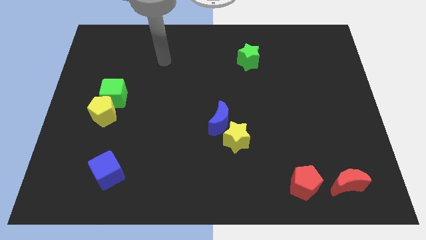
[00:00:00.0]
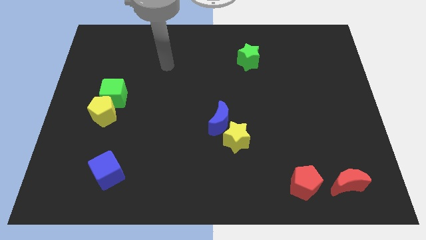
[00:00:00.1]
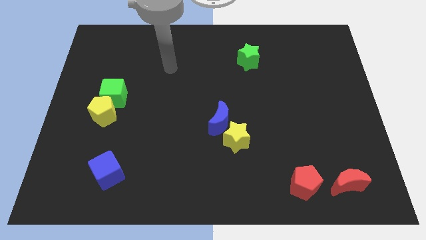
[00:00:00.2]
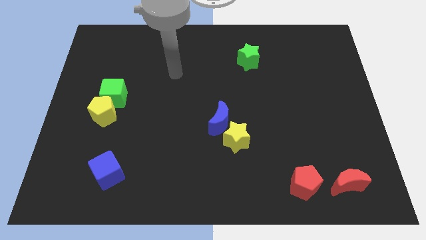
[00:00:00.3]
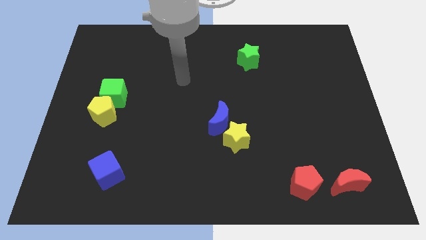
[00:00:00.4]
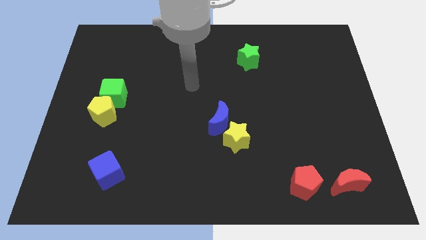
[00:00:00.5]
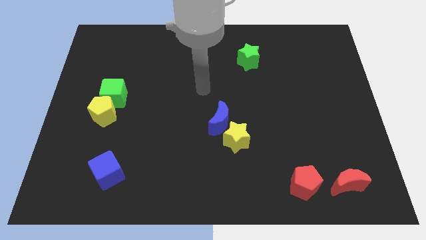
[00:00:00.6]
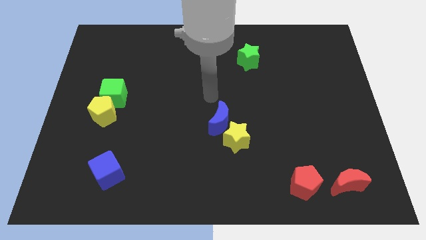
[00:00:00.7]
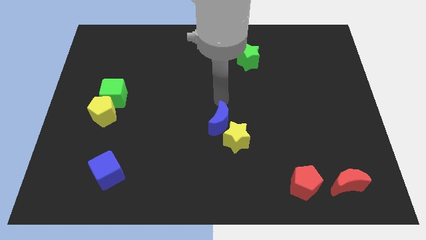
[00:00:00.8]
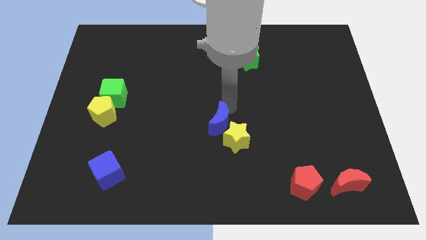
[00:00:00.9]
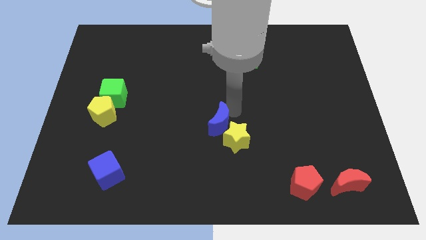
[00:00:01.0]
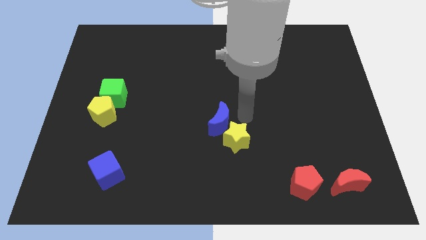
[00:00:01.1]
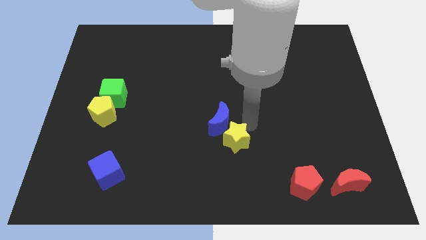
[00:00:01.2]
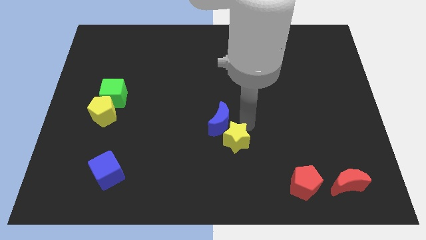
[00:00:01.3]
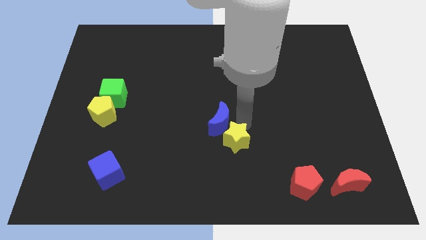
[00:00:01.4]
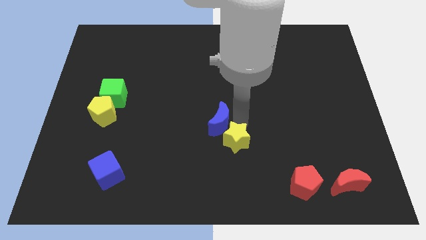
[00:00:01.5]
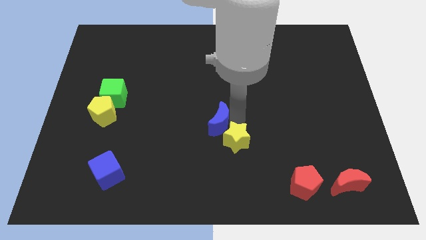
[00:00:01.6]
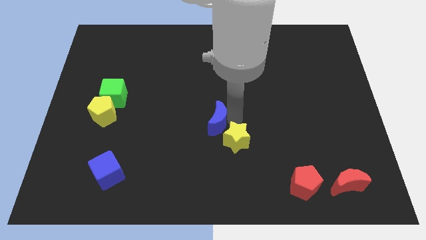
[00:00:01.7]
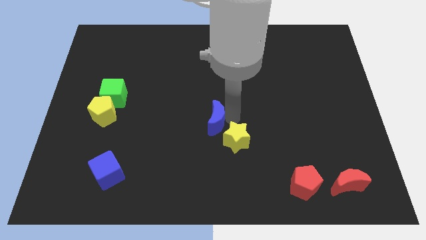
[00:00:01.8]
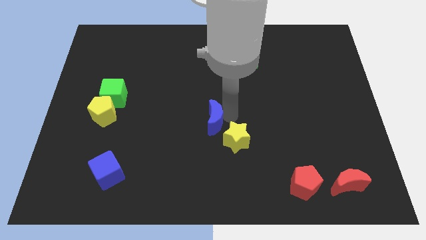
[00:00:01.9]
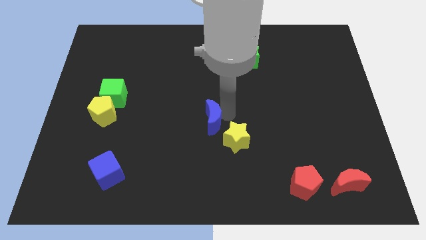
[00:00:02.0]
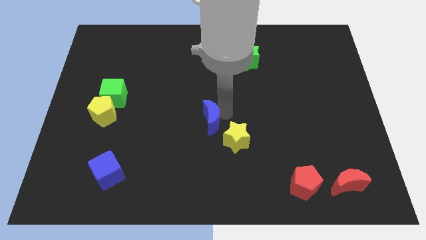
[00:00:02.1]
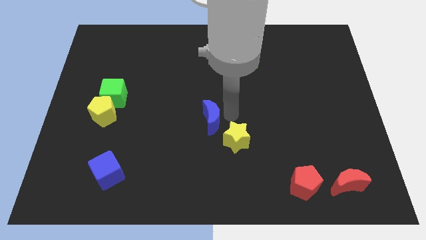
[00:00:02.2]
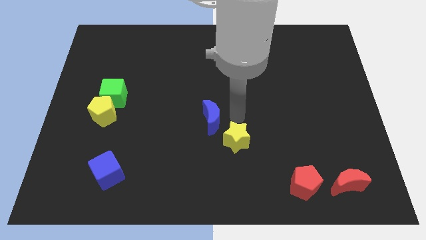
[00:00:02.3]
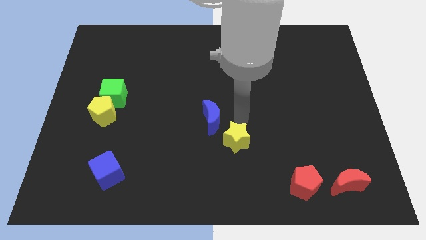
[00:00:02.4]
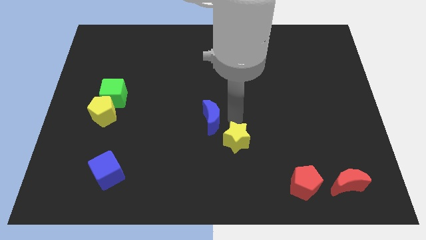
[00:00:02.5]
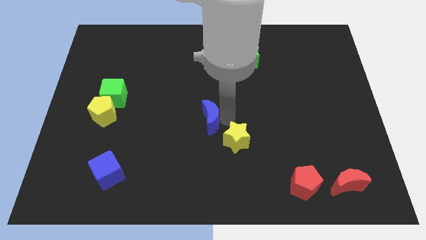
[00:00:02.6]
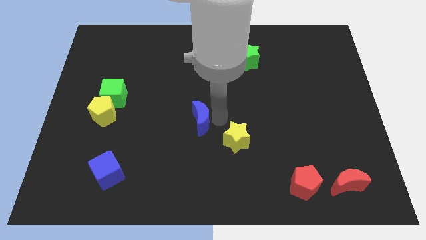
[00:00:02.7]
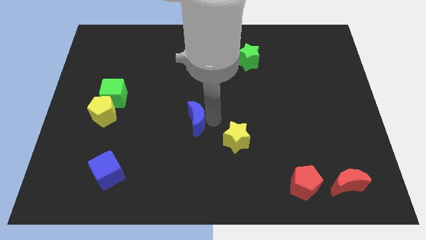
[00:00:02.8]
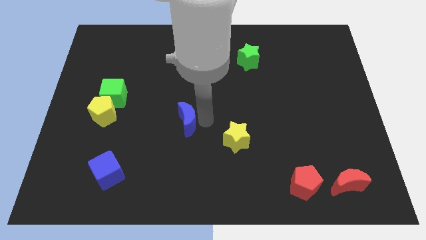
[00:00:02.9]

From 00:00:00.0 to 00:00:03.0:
push the blue moon to the left a bit

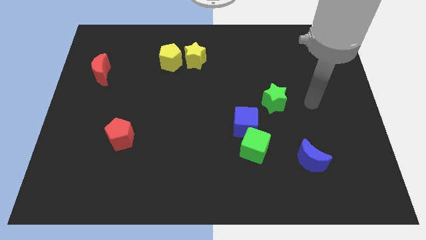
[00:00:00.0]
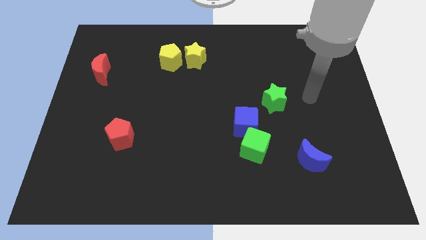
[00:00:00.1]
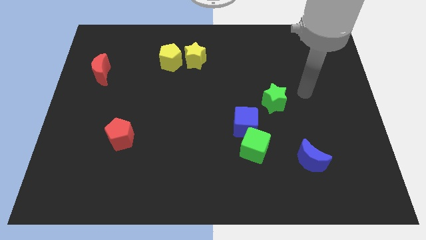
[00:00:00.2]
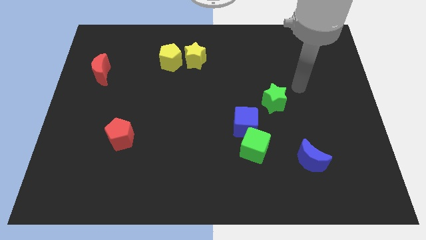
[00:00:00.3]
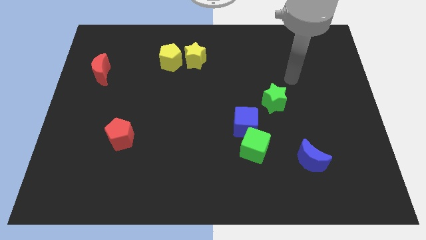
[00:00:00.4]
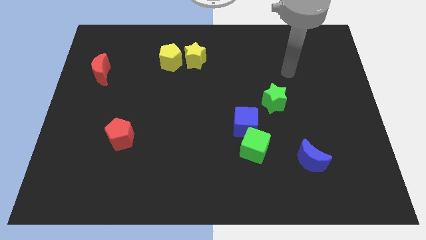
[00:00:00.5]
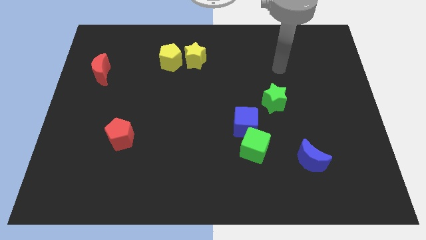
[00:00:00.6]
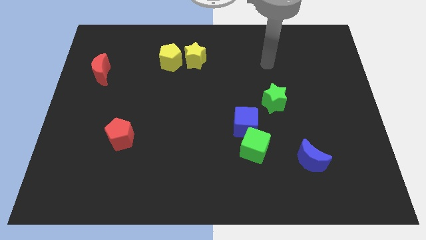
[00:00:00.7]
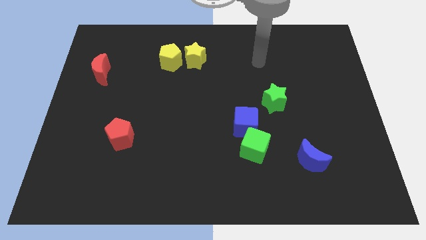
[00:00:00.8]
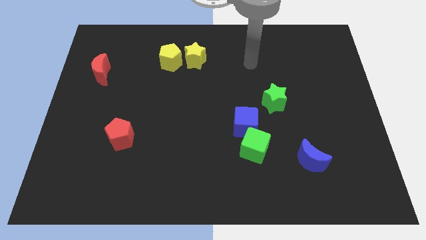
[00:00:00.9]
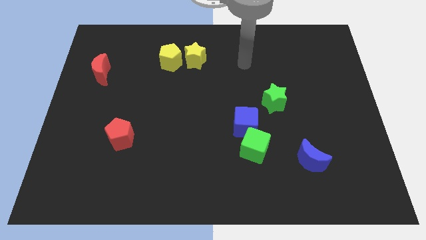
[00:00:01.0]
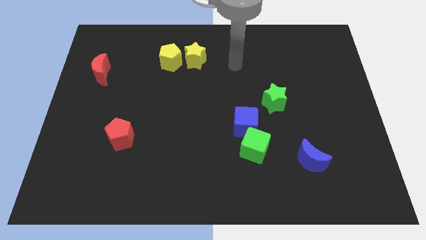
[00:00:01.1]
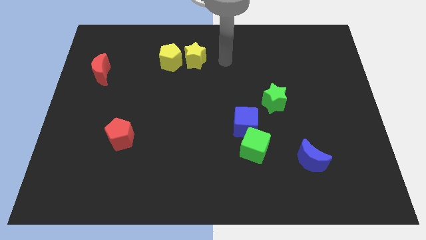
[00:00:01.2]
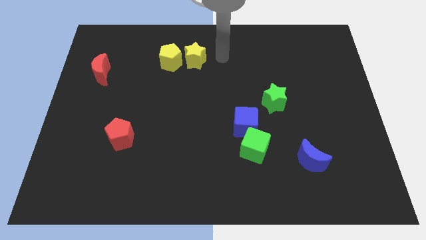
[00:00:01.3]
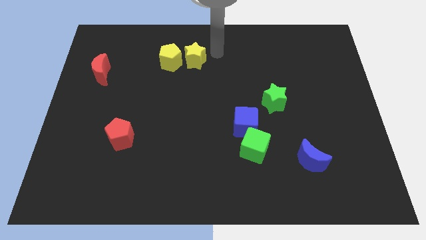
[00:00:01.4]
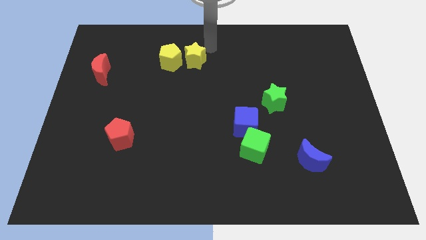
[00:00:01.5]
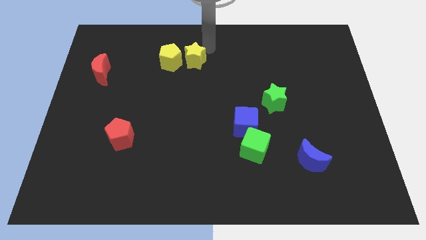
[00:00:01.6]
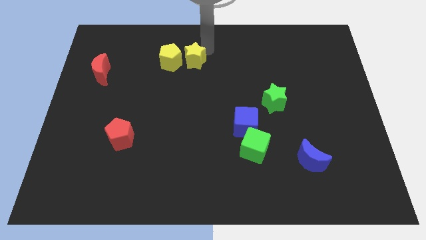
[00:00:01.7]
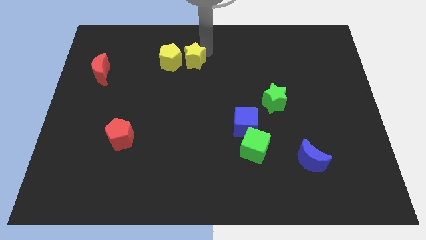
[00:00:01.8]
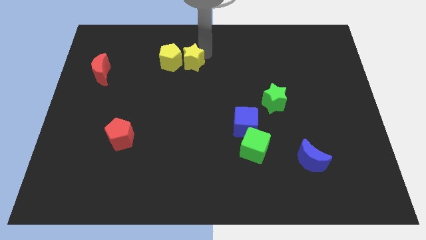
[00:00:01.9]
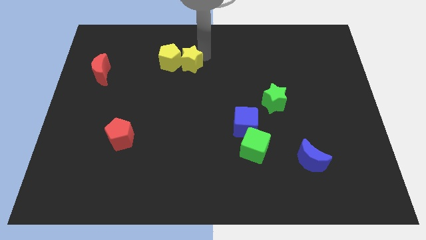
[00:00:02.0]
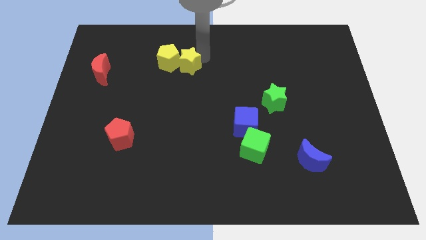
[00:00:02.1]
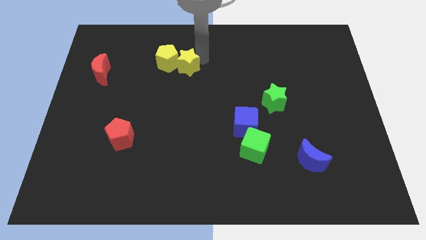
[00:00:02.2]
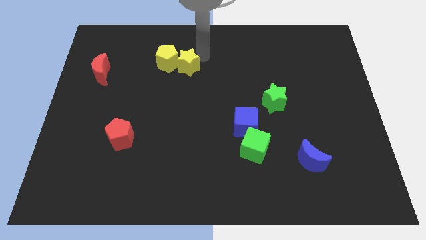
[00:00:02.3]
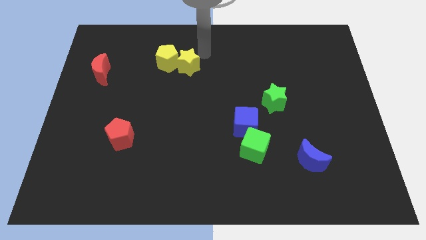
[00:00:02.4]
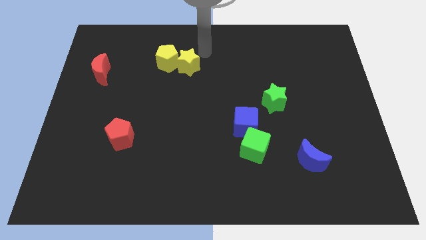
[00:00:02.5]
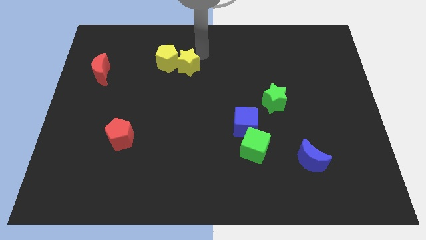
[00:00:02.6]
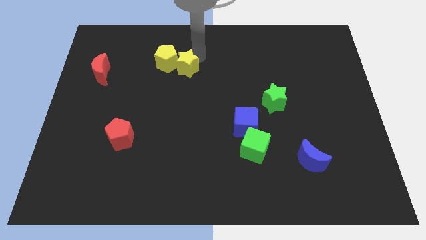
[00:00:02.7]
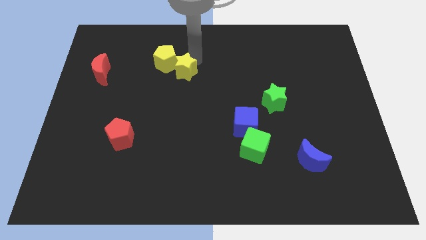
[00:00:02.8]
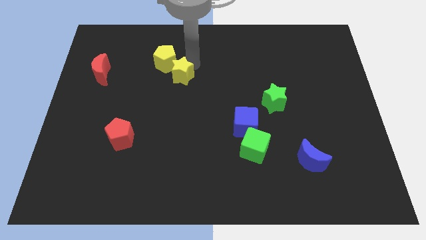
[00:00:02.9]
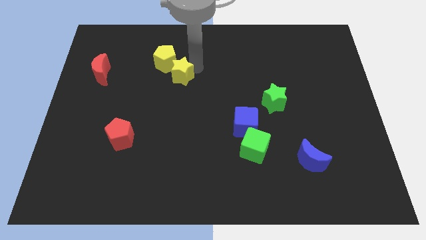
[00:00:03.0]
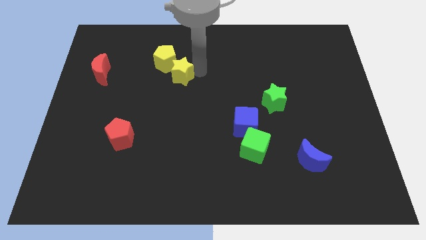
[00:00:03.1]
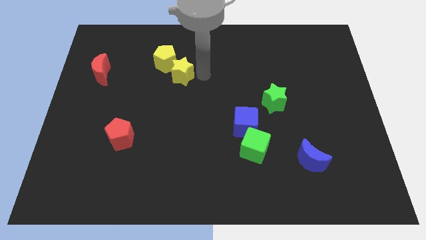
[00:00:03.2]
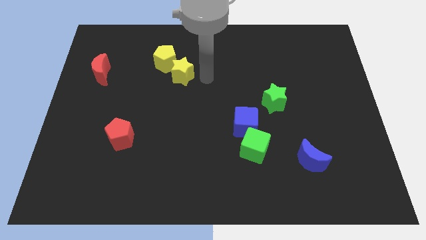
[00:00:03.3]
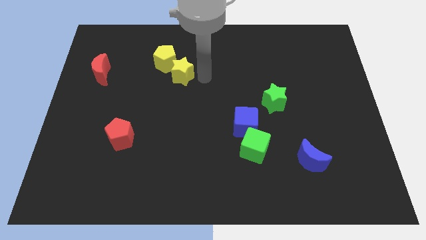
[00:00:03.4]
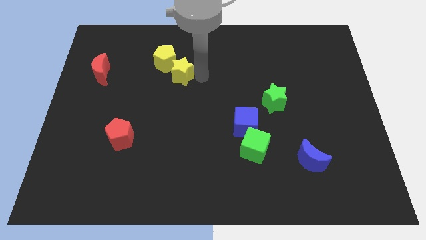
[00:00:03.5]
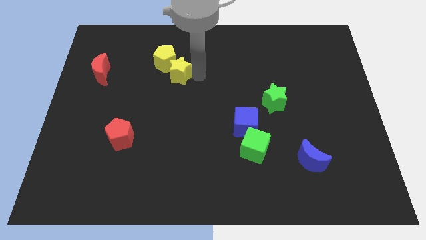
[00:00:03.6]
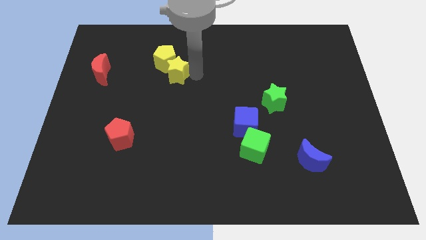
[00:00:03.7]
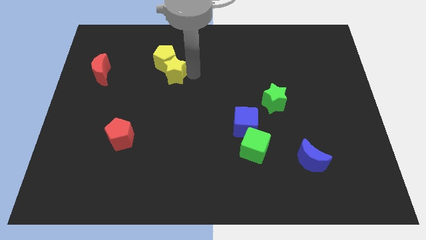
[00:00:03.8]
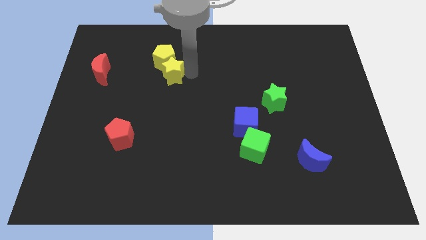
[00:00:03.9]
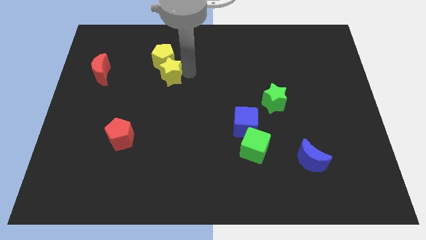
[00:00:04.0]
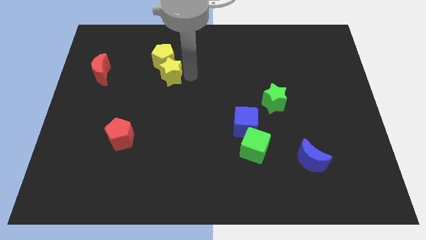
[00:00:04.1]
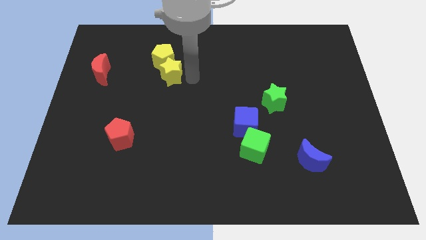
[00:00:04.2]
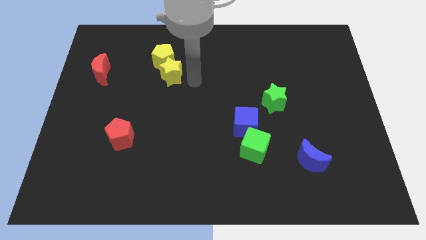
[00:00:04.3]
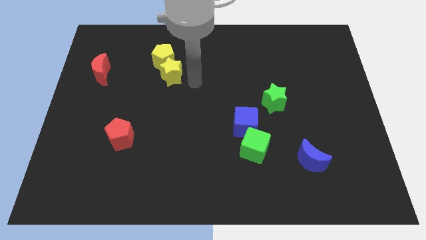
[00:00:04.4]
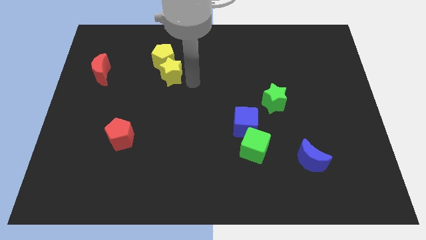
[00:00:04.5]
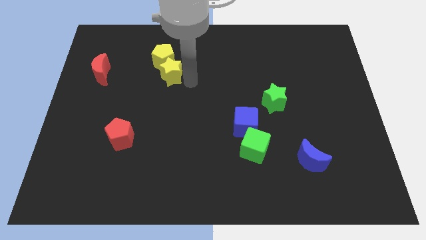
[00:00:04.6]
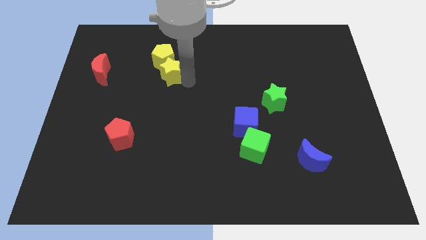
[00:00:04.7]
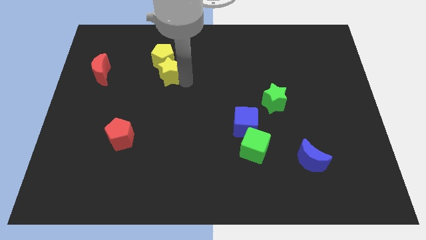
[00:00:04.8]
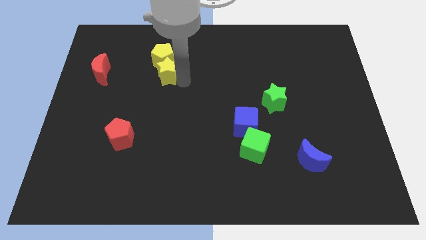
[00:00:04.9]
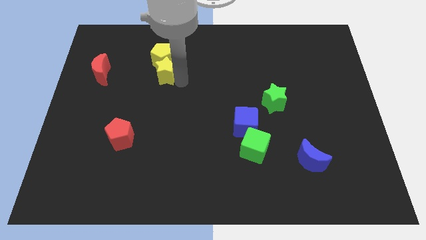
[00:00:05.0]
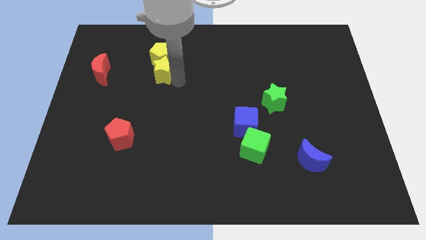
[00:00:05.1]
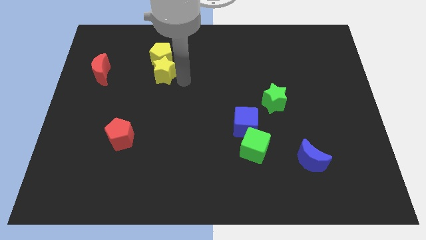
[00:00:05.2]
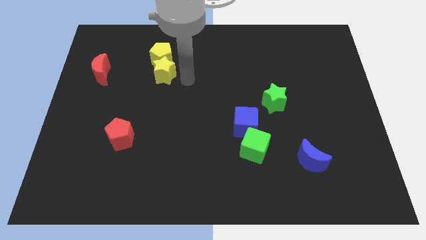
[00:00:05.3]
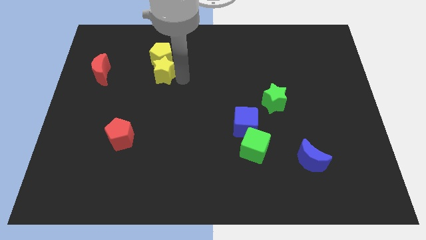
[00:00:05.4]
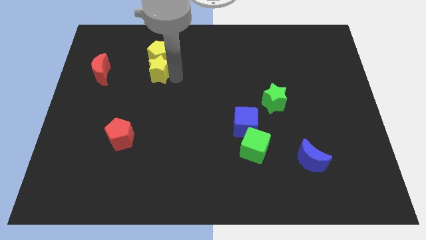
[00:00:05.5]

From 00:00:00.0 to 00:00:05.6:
push the yellow star a bit left
